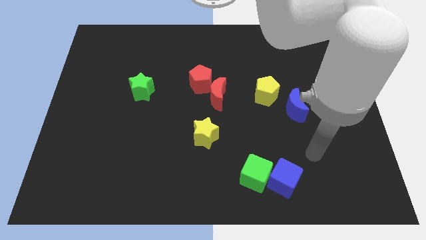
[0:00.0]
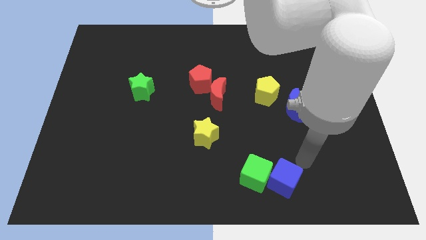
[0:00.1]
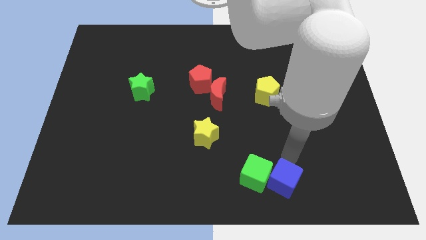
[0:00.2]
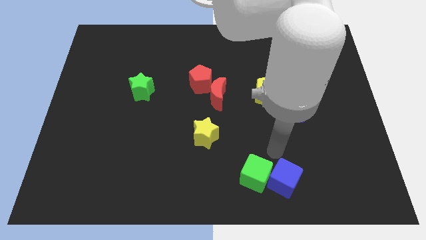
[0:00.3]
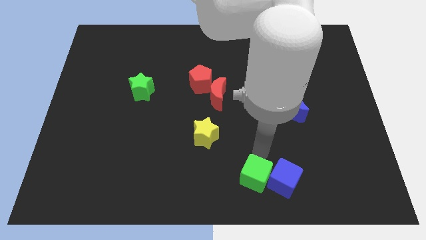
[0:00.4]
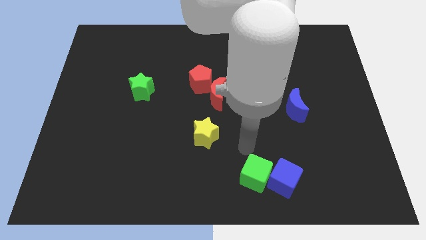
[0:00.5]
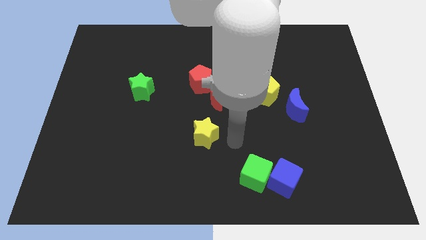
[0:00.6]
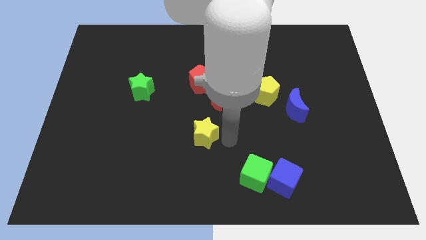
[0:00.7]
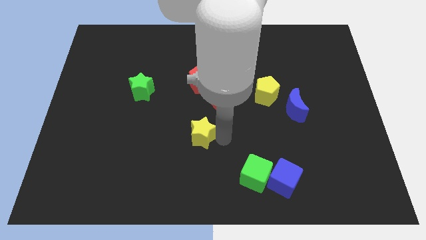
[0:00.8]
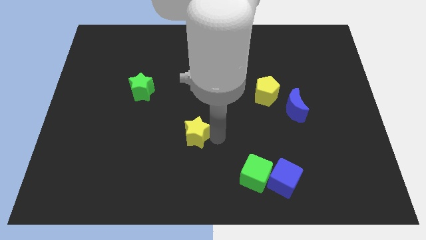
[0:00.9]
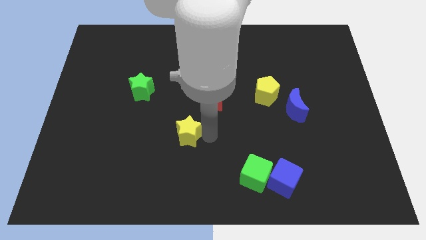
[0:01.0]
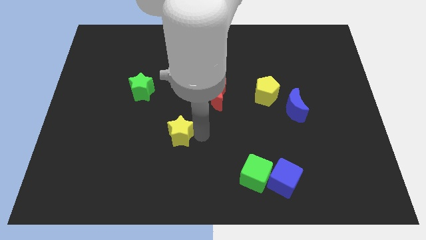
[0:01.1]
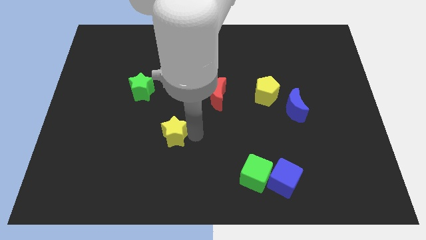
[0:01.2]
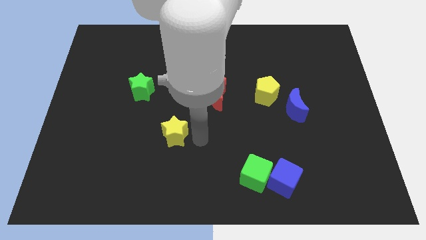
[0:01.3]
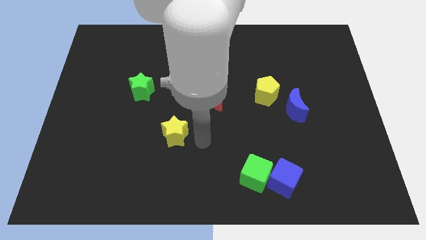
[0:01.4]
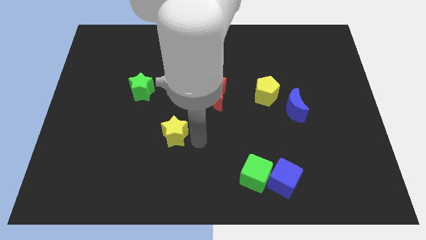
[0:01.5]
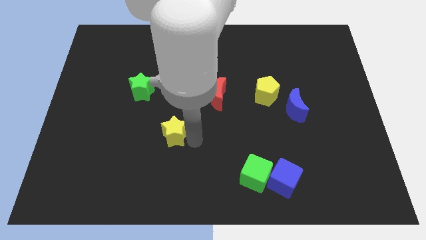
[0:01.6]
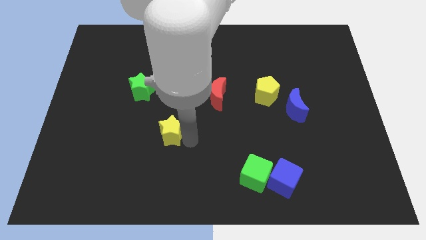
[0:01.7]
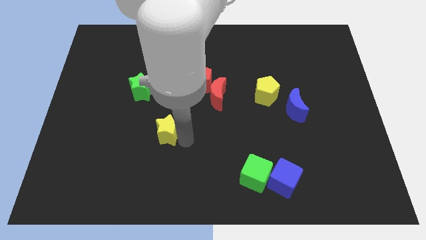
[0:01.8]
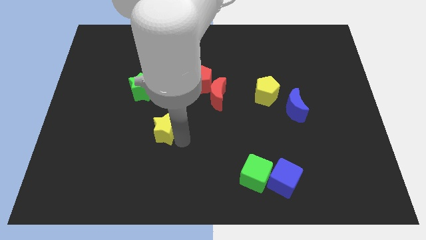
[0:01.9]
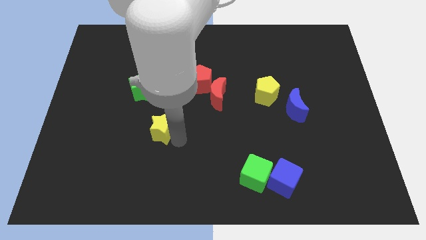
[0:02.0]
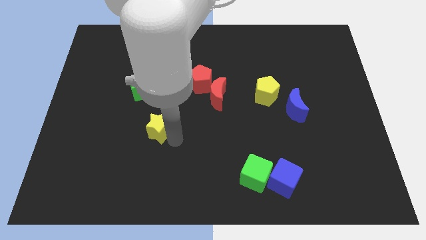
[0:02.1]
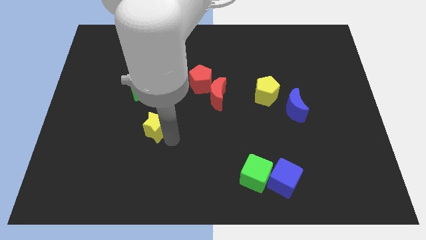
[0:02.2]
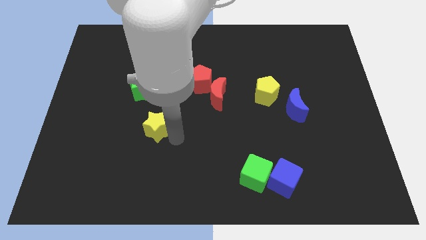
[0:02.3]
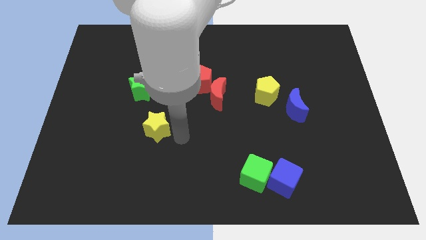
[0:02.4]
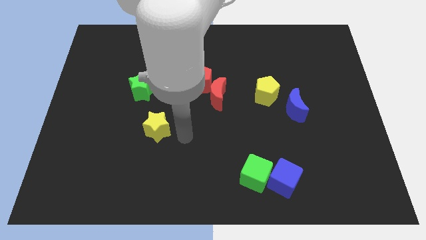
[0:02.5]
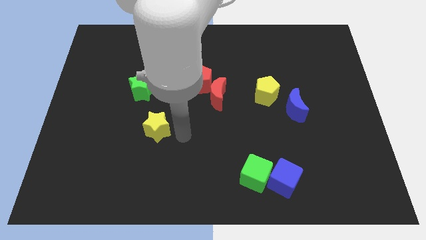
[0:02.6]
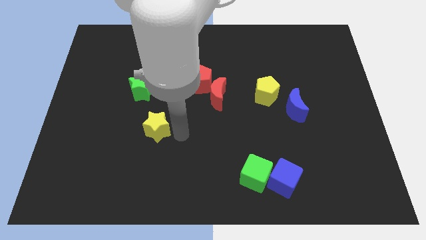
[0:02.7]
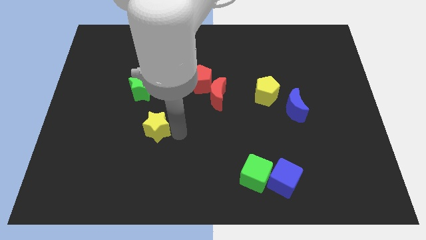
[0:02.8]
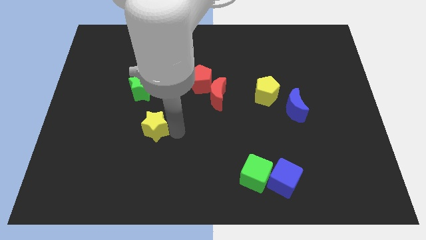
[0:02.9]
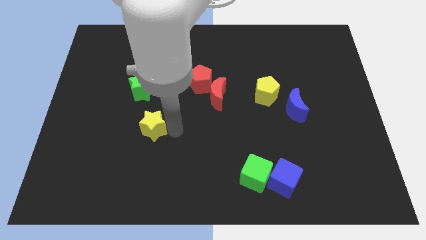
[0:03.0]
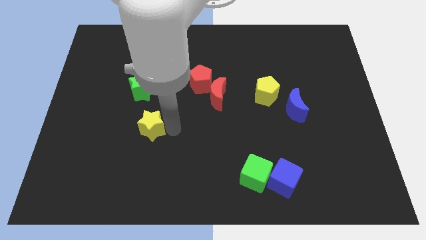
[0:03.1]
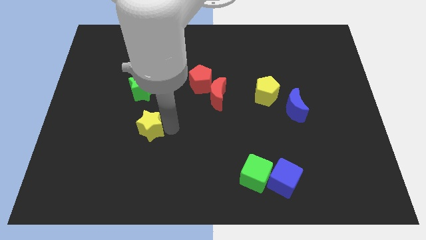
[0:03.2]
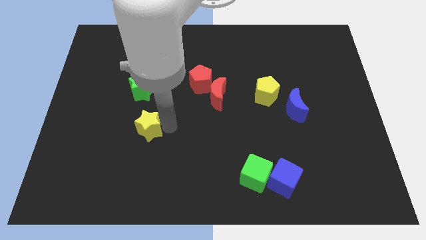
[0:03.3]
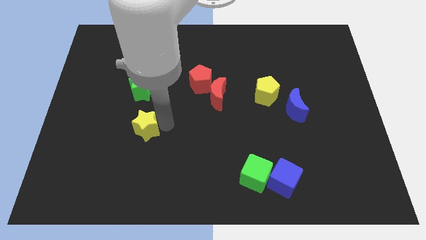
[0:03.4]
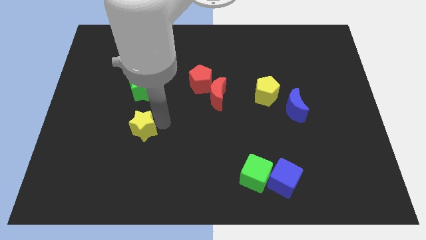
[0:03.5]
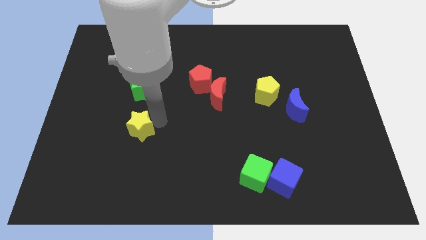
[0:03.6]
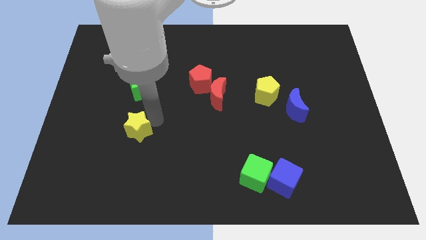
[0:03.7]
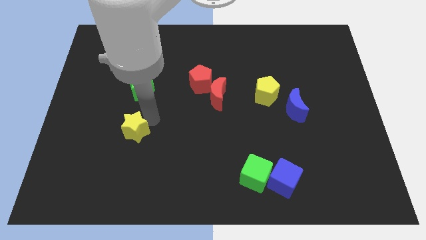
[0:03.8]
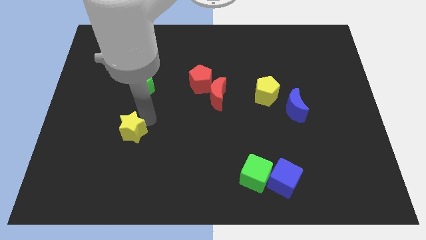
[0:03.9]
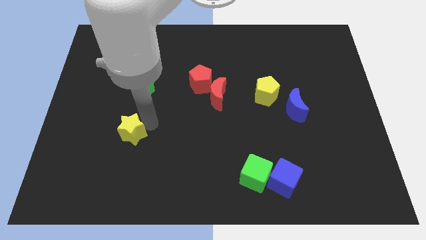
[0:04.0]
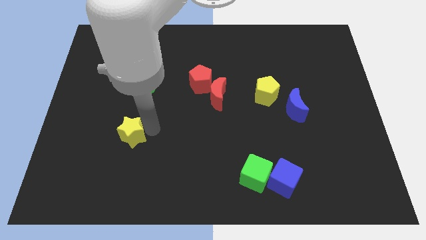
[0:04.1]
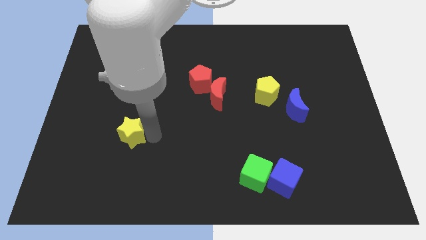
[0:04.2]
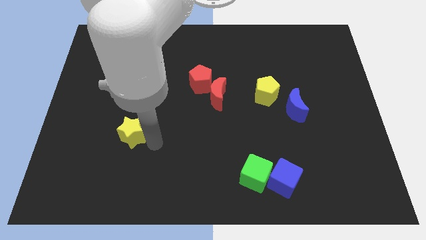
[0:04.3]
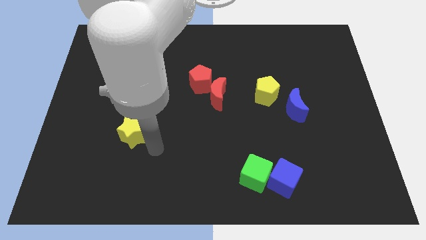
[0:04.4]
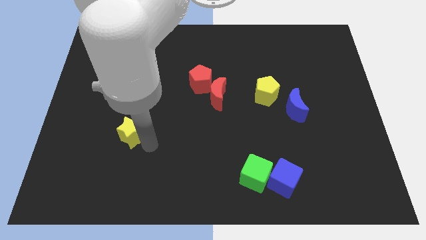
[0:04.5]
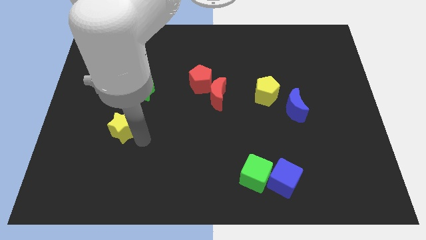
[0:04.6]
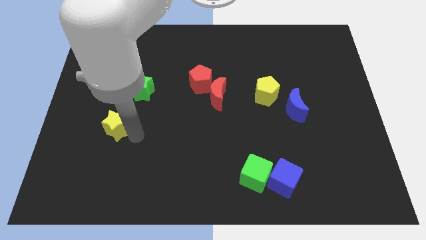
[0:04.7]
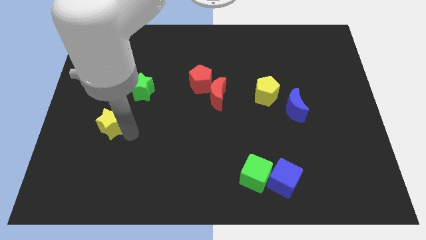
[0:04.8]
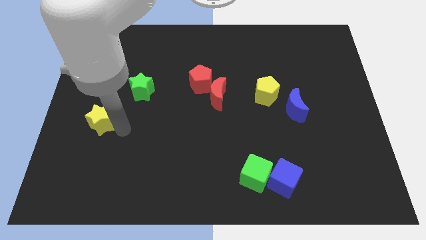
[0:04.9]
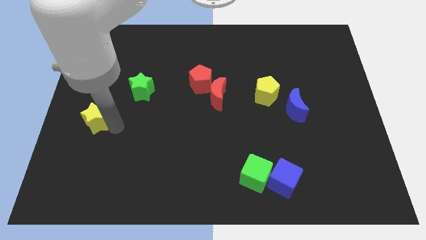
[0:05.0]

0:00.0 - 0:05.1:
move the yellow star to the left side

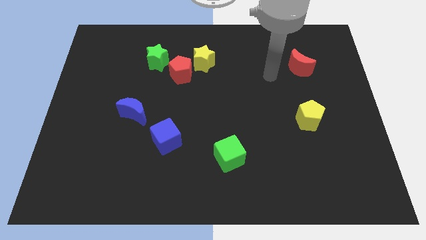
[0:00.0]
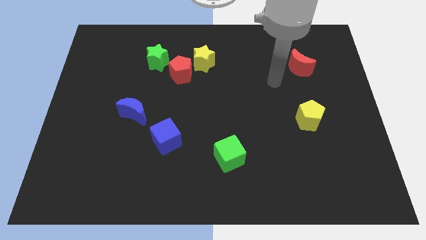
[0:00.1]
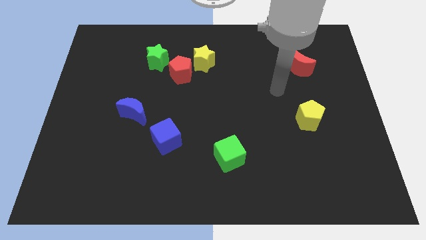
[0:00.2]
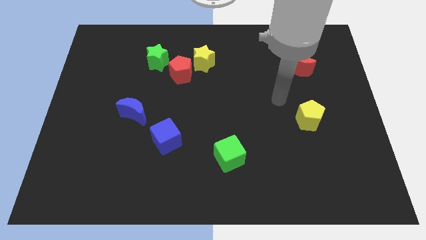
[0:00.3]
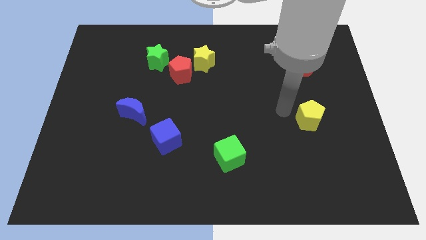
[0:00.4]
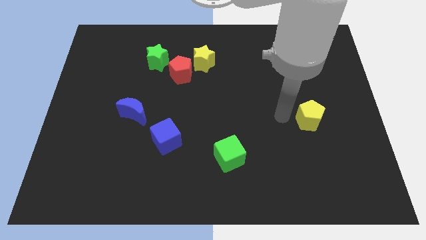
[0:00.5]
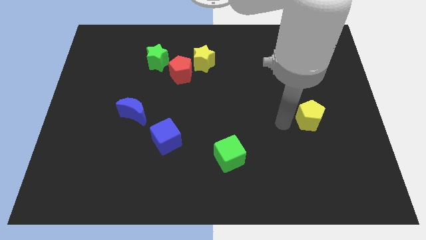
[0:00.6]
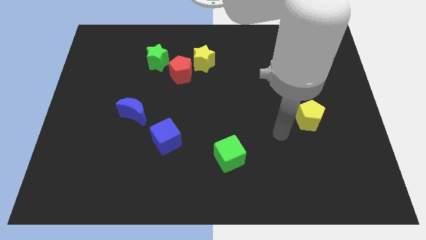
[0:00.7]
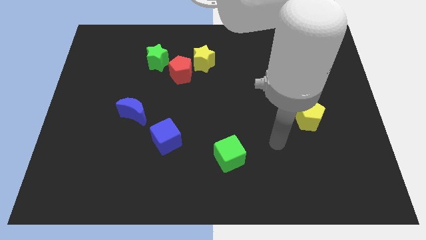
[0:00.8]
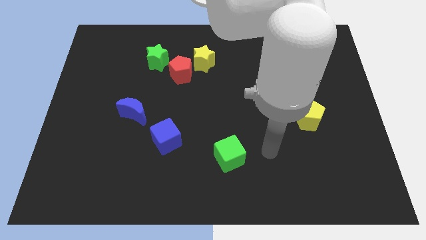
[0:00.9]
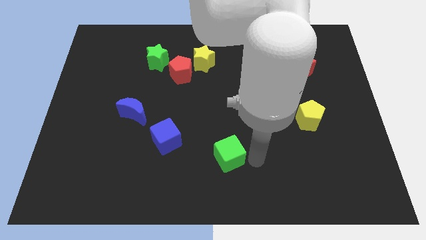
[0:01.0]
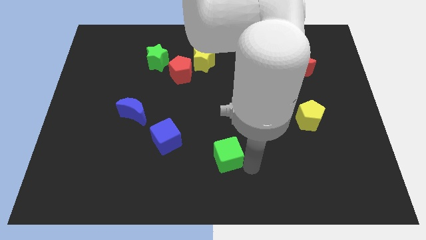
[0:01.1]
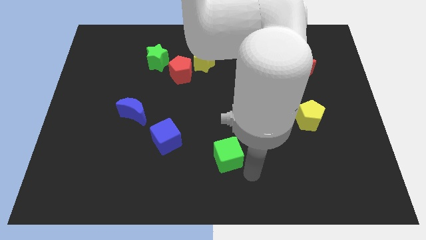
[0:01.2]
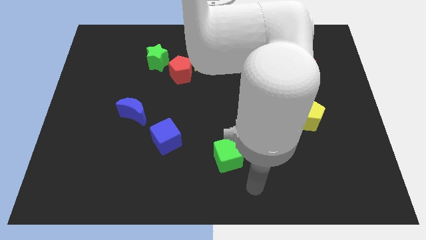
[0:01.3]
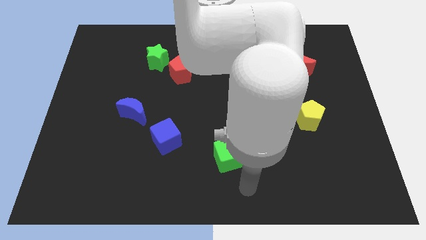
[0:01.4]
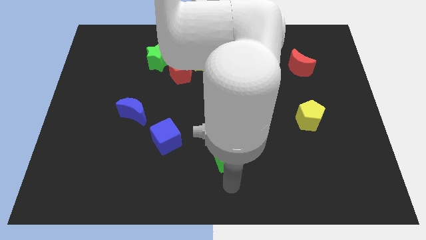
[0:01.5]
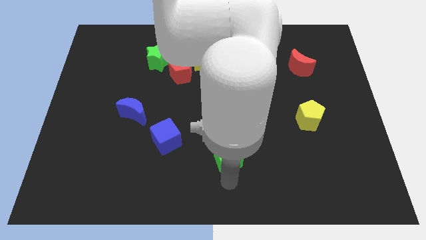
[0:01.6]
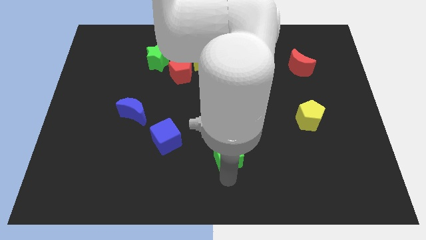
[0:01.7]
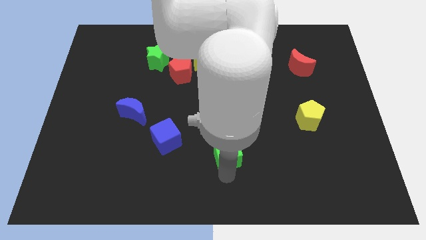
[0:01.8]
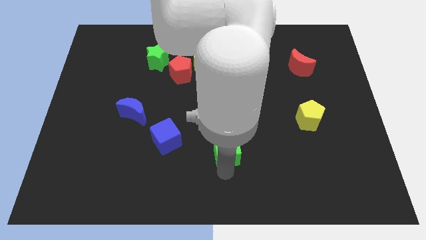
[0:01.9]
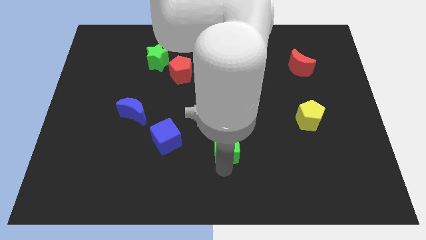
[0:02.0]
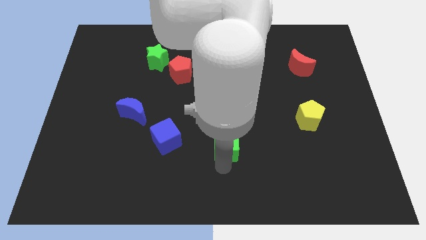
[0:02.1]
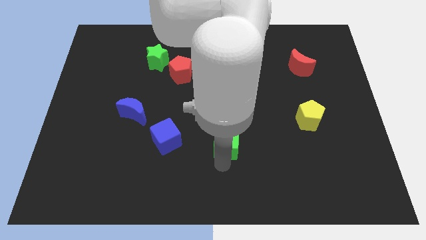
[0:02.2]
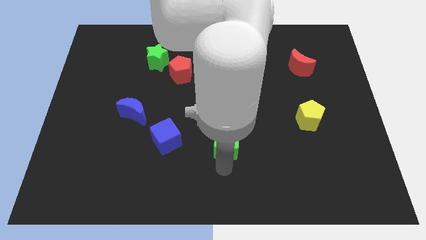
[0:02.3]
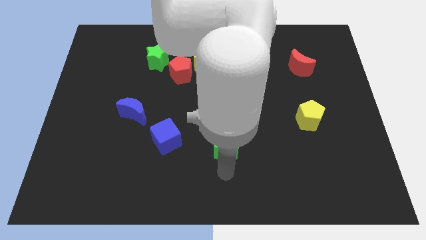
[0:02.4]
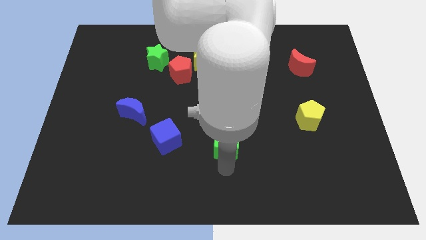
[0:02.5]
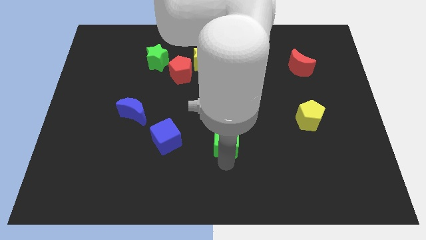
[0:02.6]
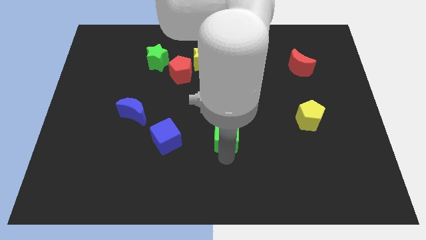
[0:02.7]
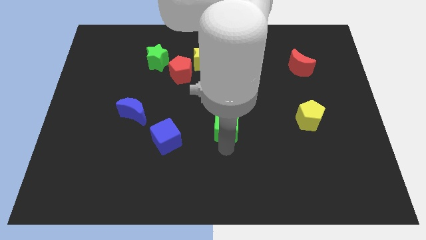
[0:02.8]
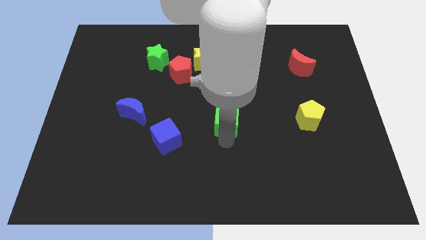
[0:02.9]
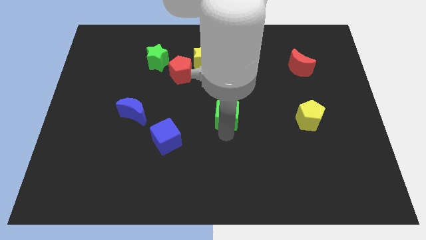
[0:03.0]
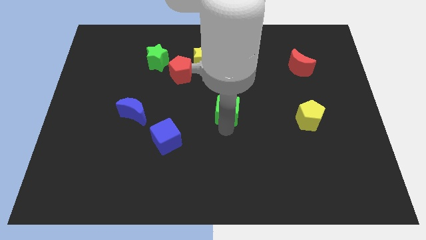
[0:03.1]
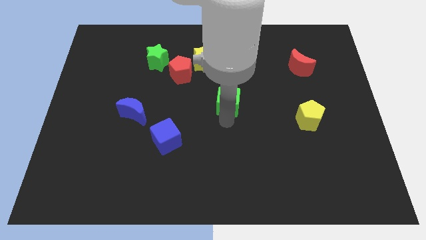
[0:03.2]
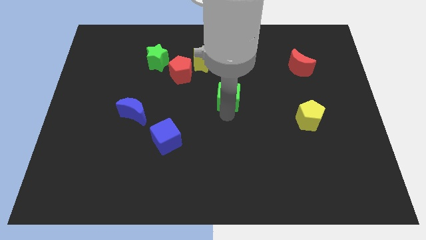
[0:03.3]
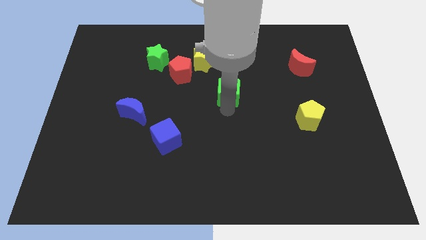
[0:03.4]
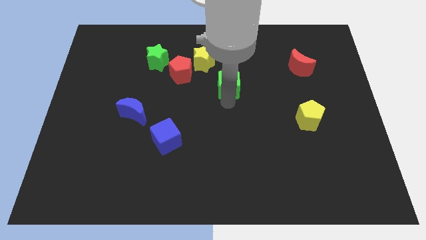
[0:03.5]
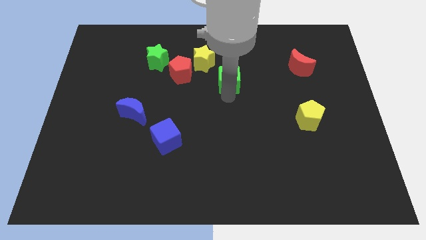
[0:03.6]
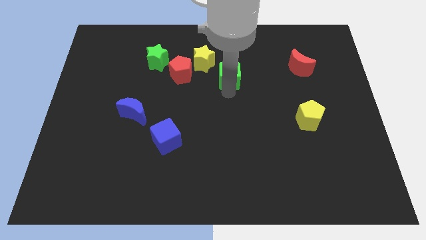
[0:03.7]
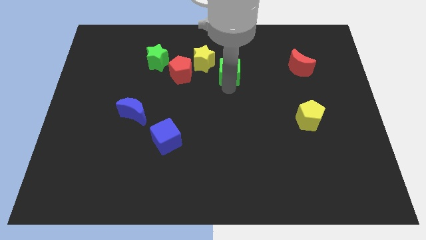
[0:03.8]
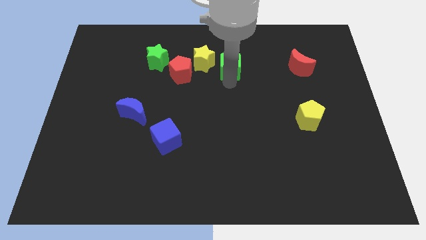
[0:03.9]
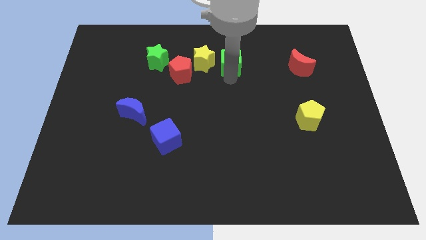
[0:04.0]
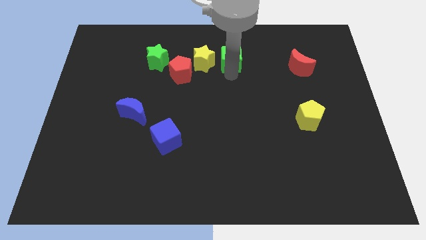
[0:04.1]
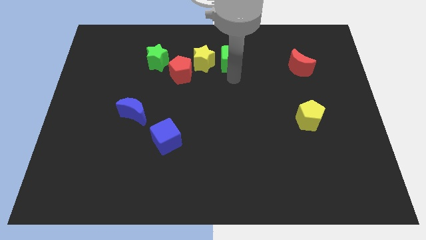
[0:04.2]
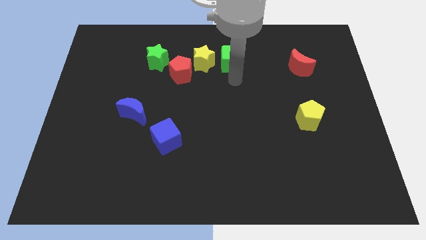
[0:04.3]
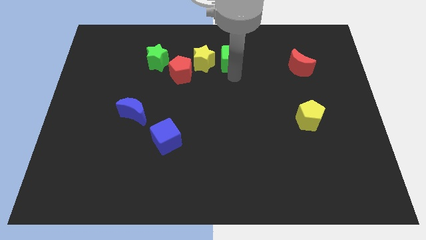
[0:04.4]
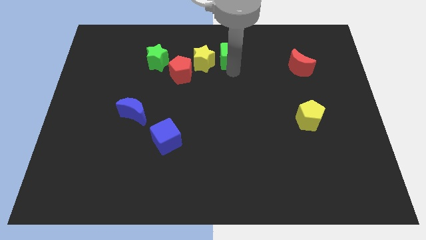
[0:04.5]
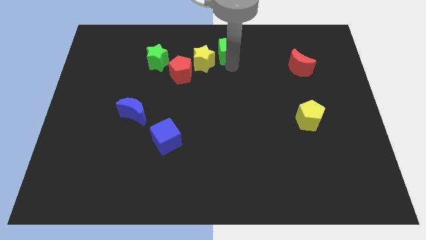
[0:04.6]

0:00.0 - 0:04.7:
slide the green cube to the top side
